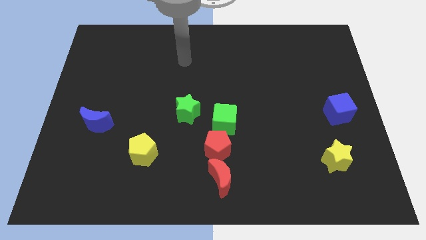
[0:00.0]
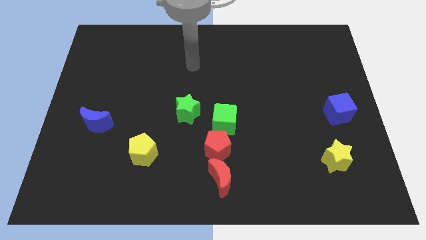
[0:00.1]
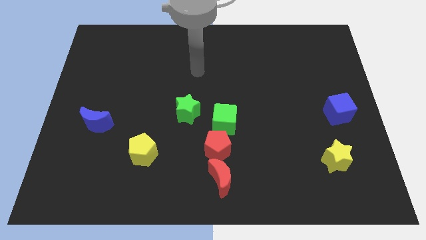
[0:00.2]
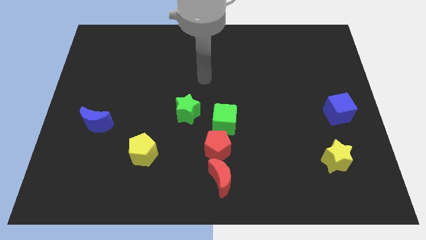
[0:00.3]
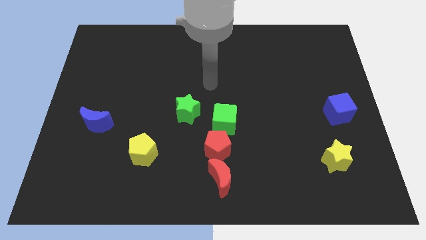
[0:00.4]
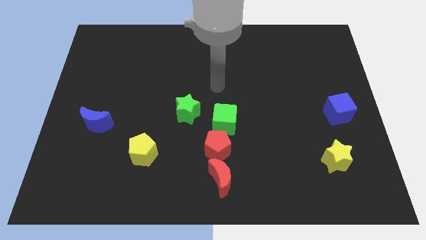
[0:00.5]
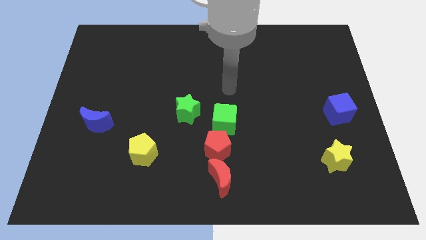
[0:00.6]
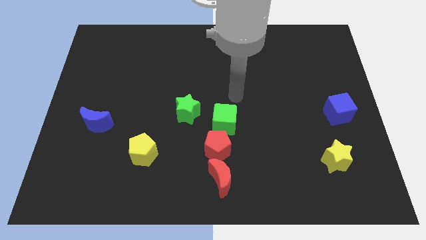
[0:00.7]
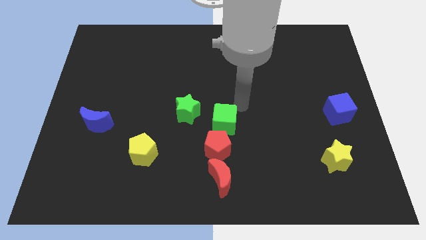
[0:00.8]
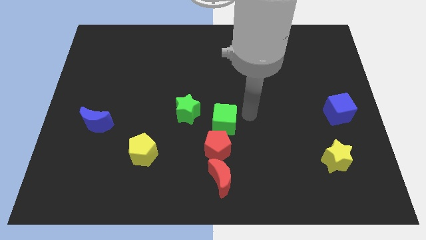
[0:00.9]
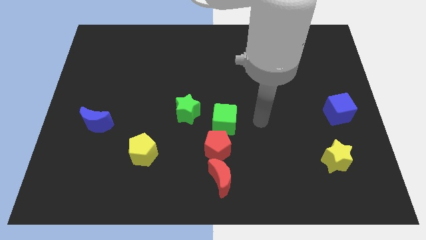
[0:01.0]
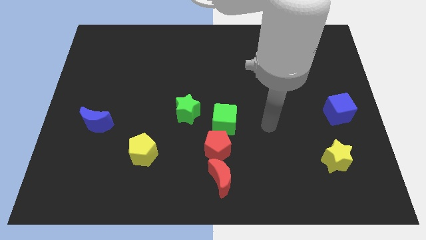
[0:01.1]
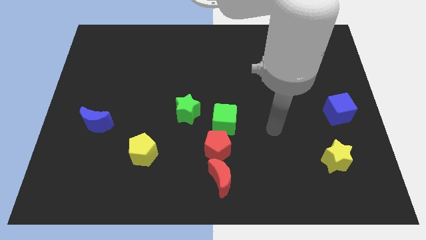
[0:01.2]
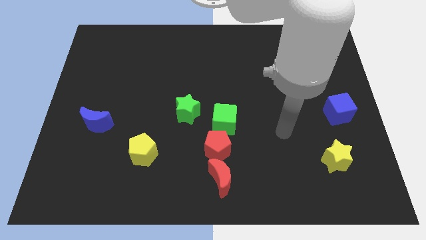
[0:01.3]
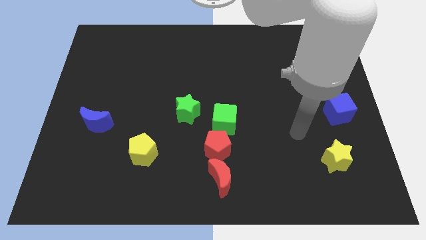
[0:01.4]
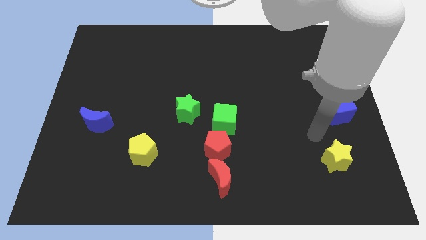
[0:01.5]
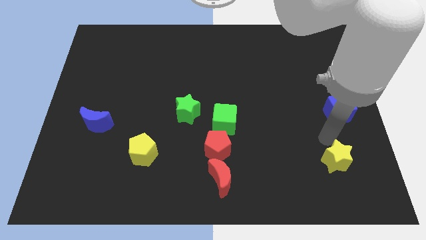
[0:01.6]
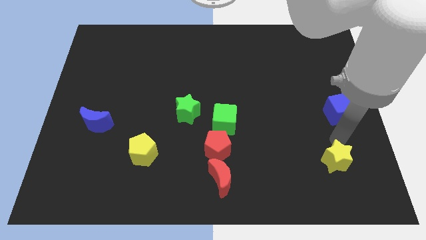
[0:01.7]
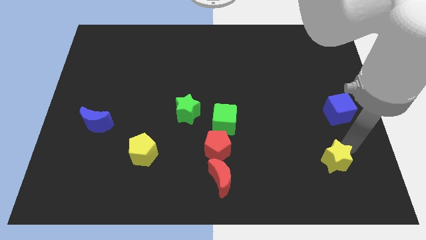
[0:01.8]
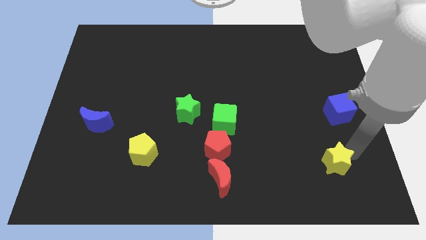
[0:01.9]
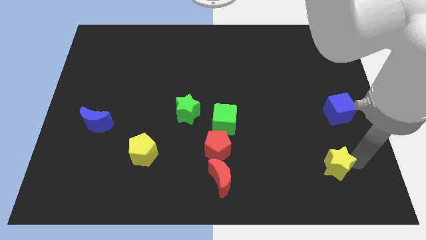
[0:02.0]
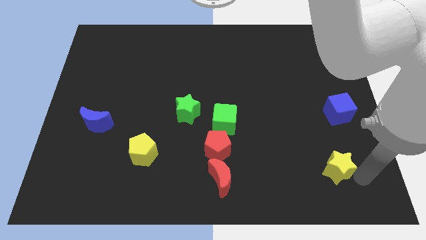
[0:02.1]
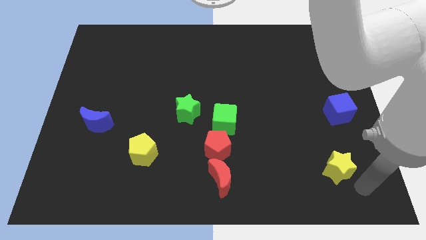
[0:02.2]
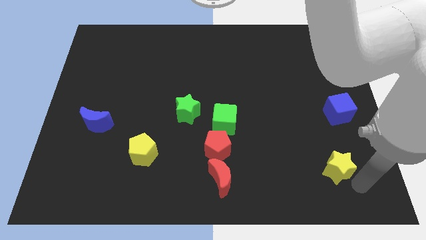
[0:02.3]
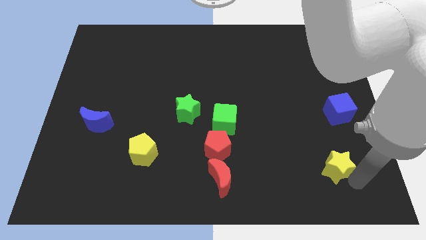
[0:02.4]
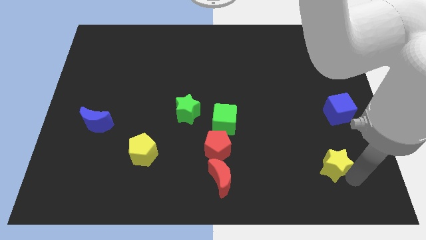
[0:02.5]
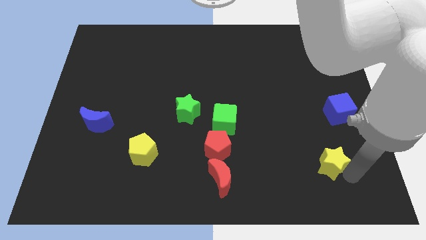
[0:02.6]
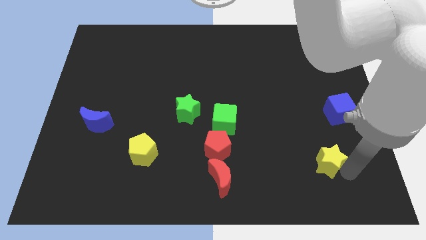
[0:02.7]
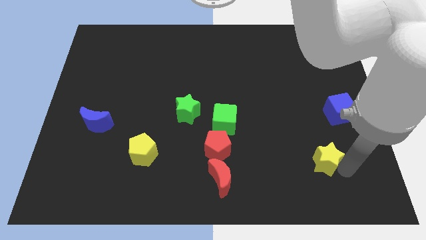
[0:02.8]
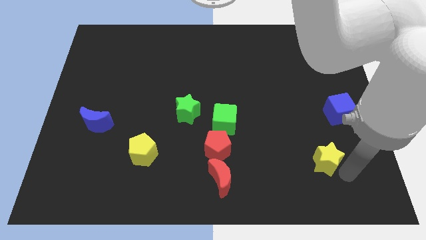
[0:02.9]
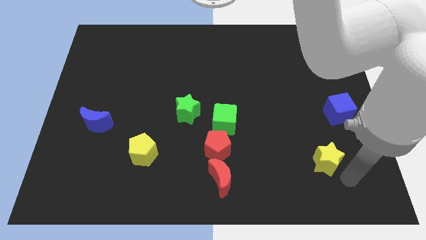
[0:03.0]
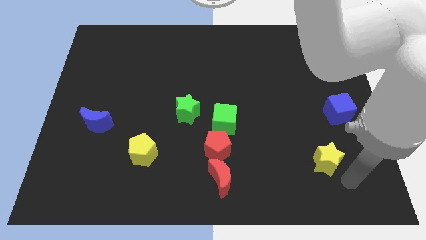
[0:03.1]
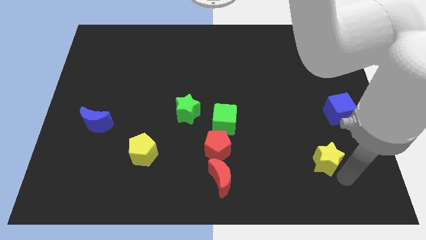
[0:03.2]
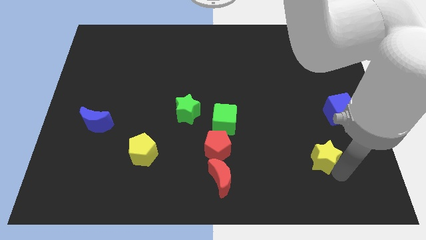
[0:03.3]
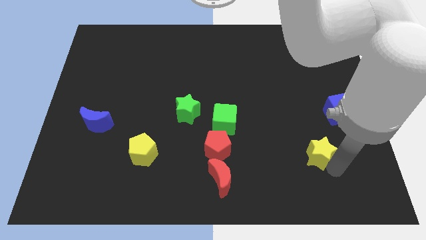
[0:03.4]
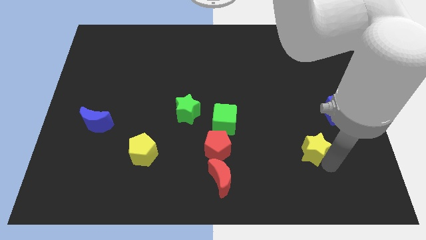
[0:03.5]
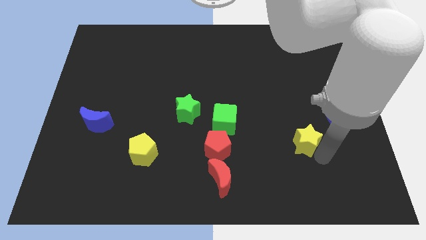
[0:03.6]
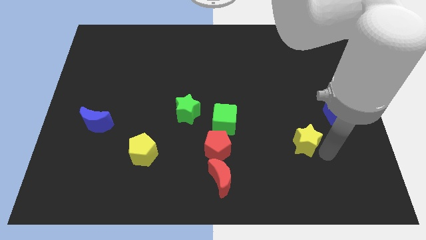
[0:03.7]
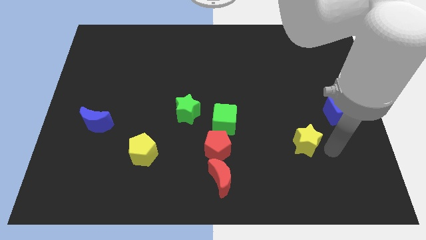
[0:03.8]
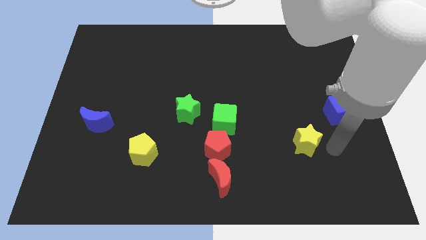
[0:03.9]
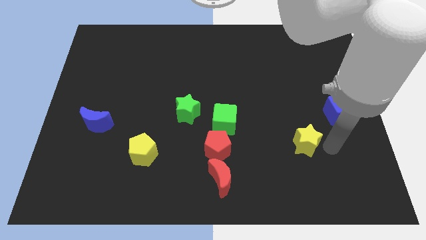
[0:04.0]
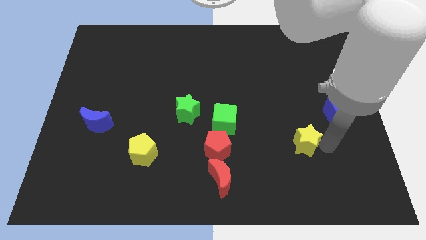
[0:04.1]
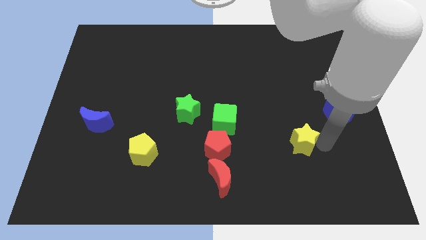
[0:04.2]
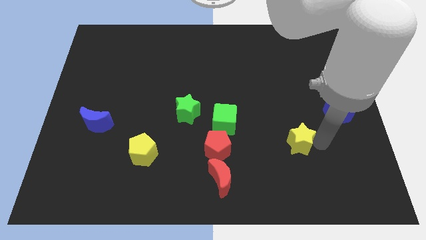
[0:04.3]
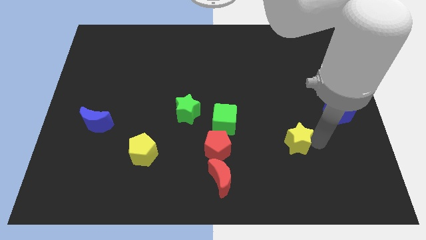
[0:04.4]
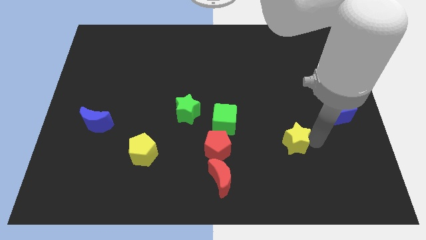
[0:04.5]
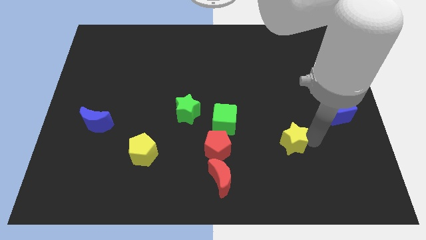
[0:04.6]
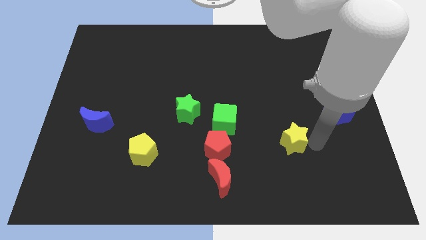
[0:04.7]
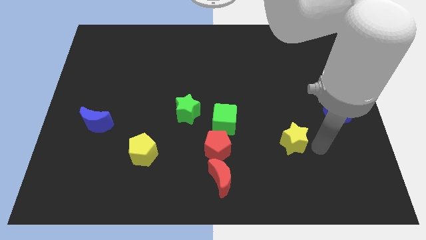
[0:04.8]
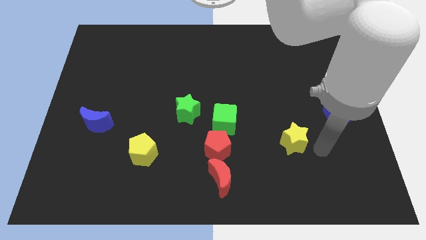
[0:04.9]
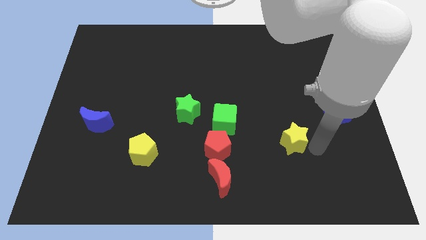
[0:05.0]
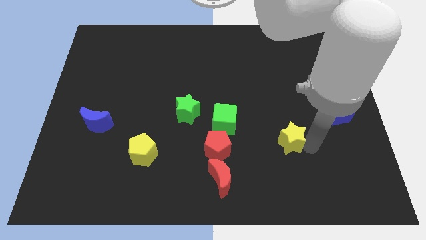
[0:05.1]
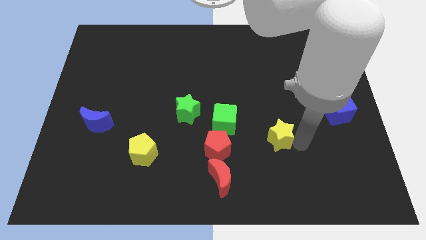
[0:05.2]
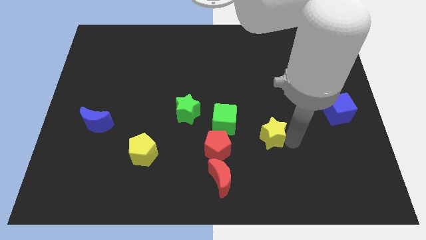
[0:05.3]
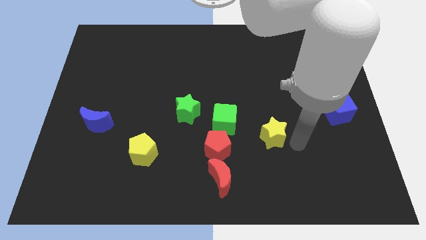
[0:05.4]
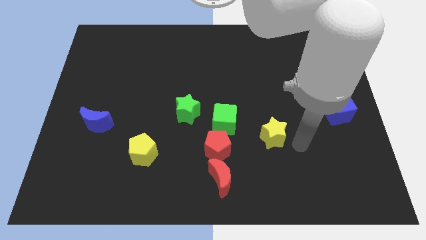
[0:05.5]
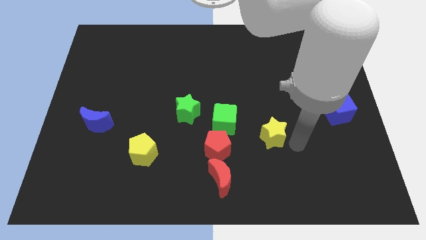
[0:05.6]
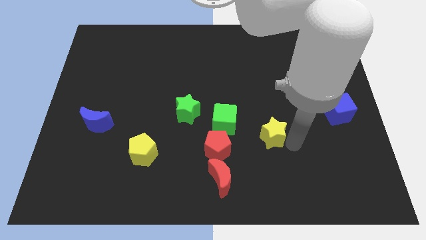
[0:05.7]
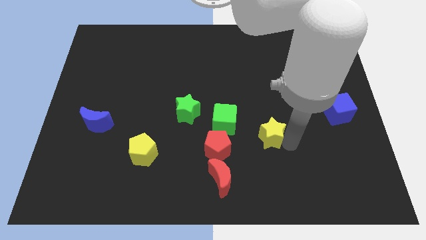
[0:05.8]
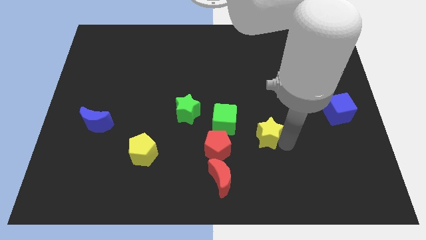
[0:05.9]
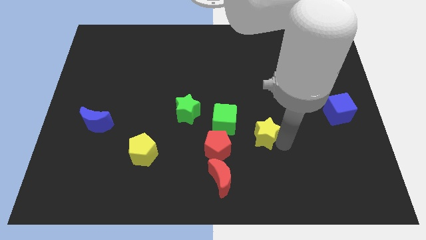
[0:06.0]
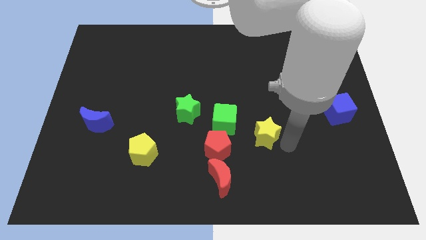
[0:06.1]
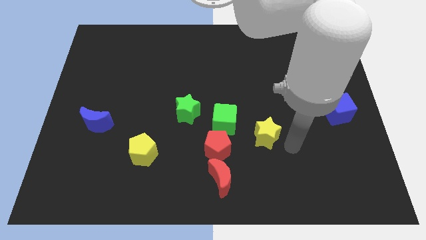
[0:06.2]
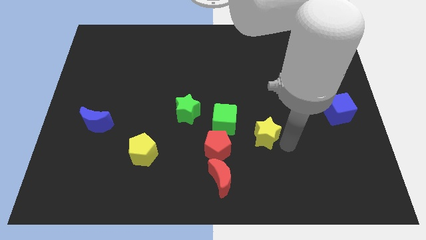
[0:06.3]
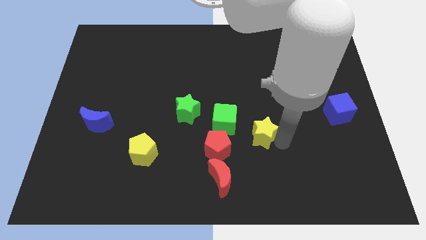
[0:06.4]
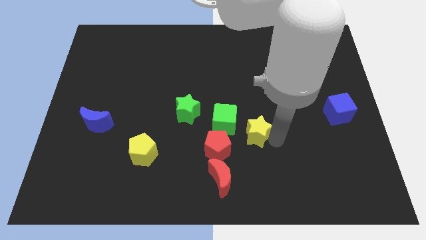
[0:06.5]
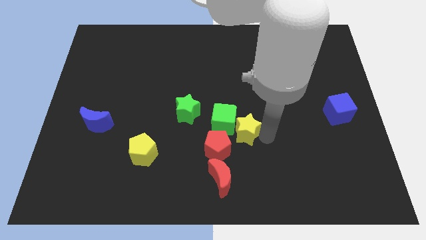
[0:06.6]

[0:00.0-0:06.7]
push the yellow star towards the green cube

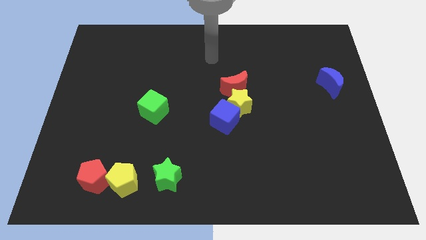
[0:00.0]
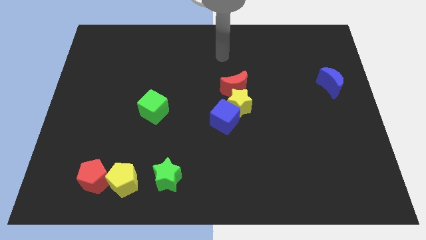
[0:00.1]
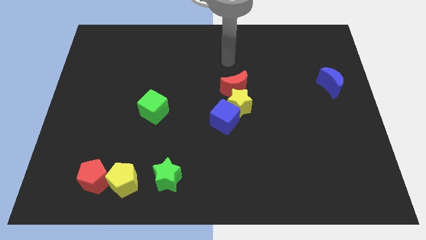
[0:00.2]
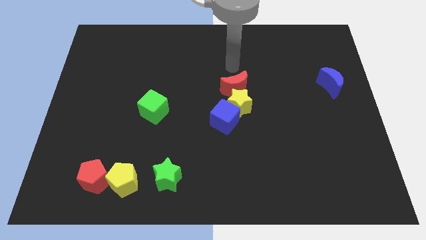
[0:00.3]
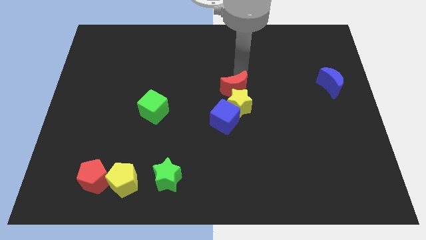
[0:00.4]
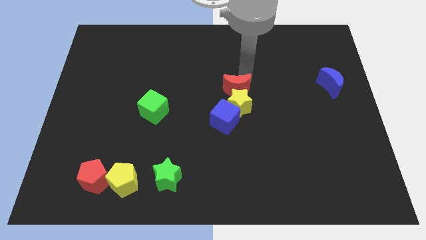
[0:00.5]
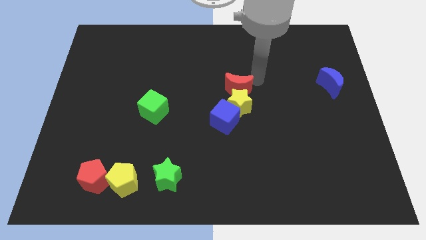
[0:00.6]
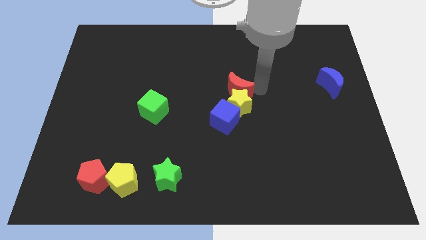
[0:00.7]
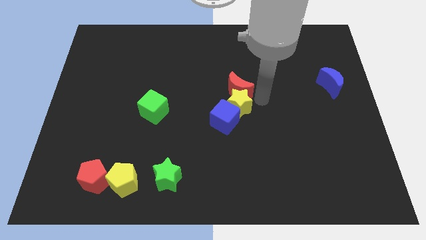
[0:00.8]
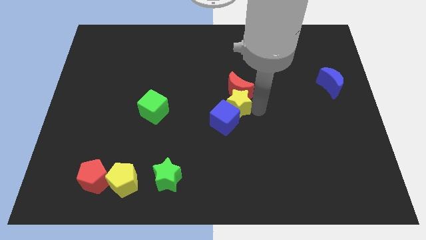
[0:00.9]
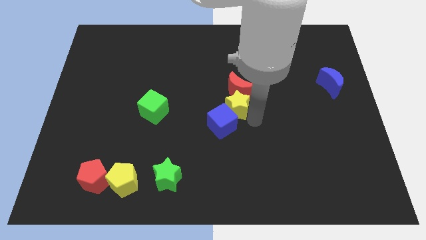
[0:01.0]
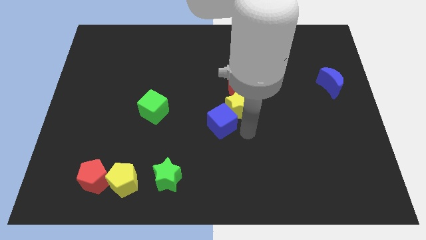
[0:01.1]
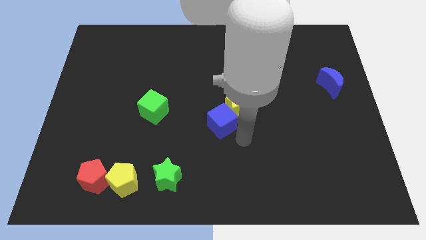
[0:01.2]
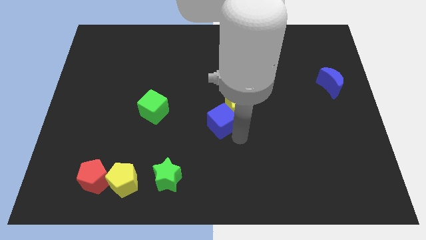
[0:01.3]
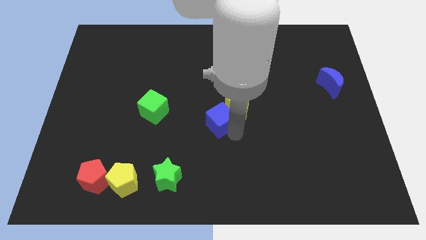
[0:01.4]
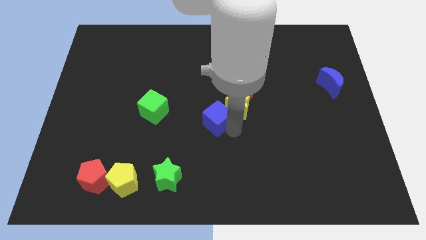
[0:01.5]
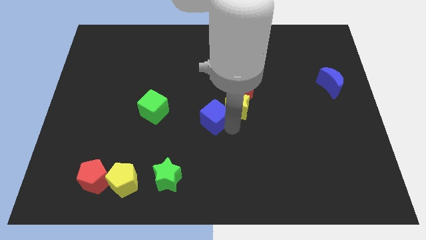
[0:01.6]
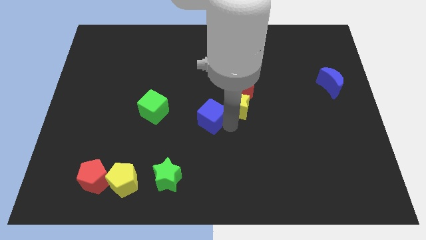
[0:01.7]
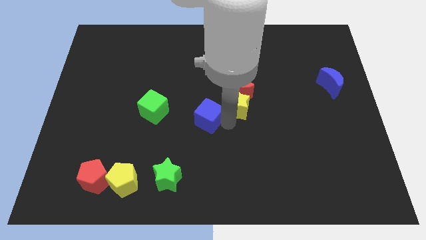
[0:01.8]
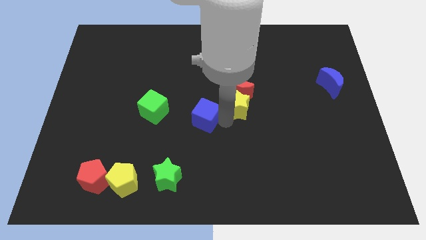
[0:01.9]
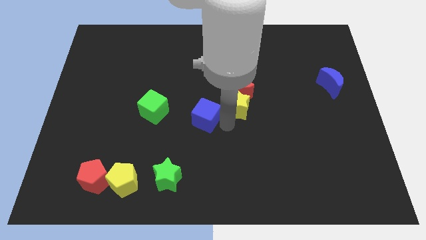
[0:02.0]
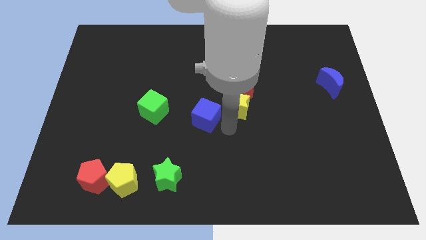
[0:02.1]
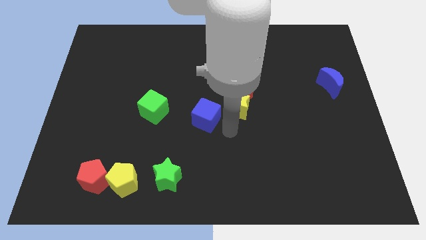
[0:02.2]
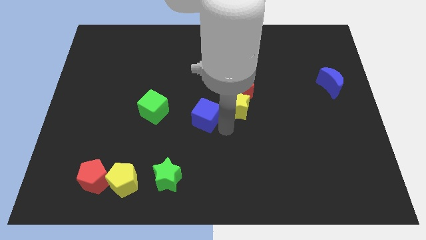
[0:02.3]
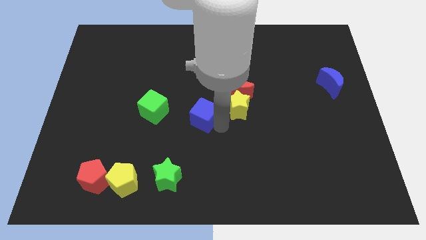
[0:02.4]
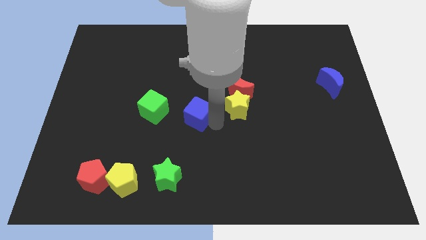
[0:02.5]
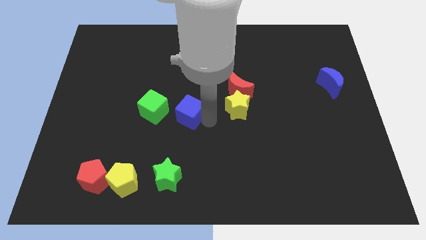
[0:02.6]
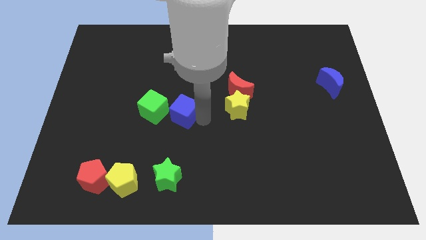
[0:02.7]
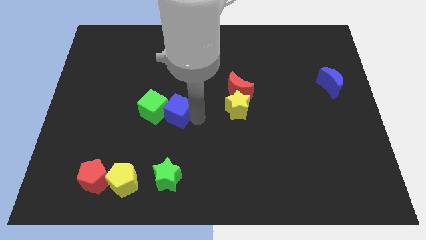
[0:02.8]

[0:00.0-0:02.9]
push the blue cube towards the green cube
